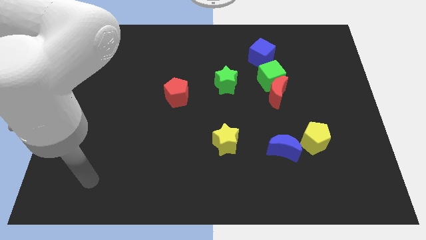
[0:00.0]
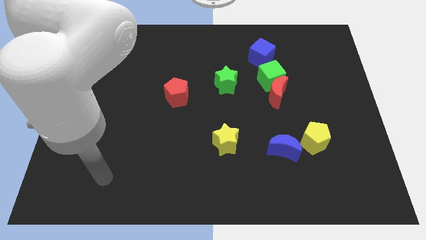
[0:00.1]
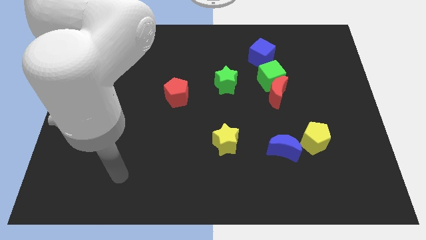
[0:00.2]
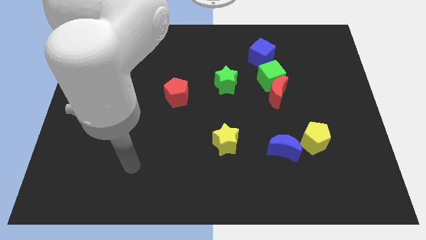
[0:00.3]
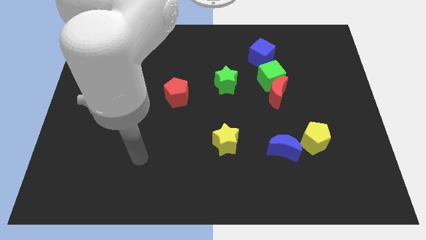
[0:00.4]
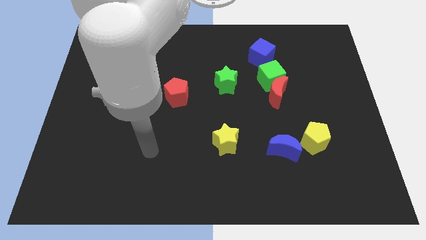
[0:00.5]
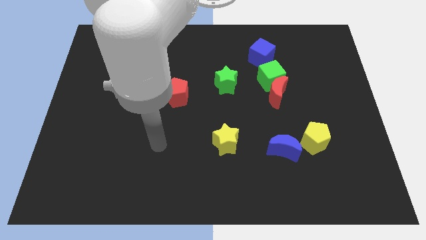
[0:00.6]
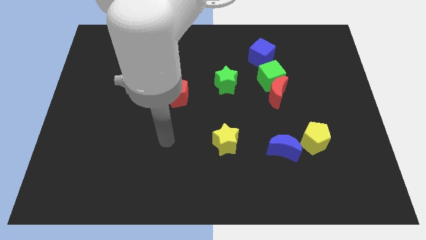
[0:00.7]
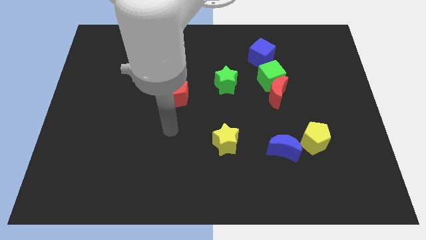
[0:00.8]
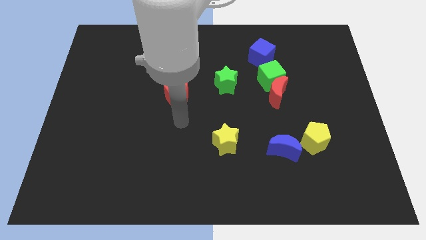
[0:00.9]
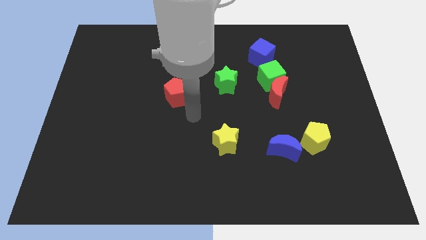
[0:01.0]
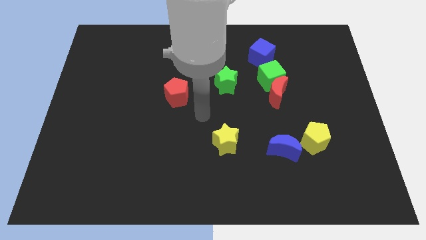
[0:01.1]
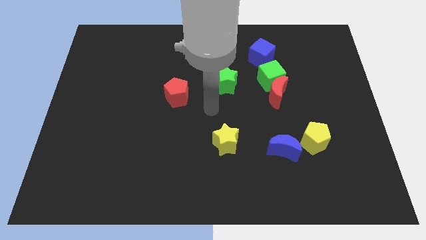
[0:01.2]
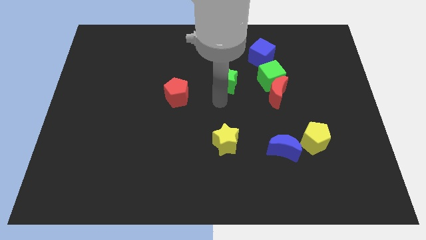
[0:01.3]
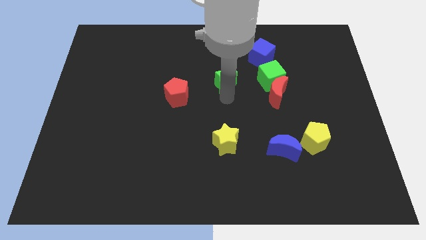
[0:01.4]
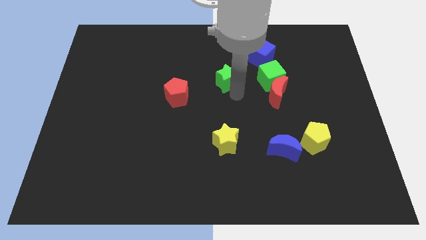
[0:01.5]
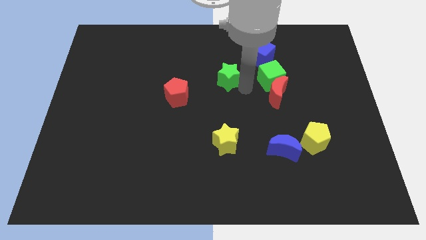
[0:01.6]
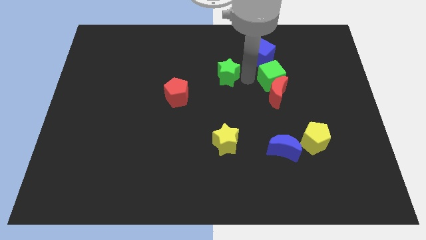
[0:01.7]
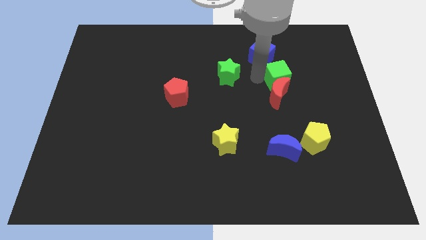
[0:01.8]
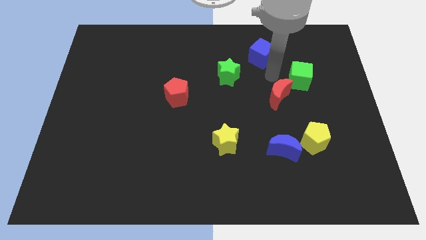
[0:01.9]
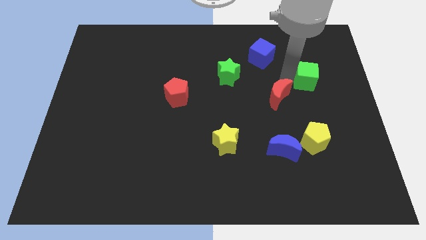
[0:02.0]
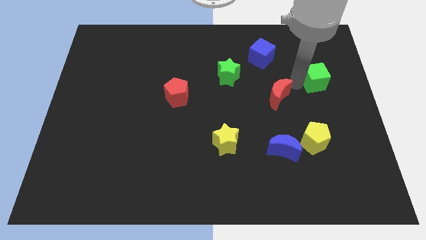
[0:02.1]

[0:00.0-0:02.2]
separate the red moon from the green cube

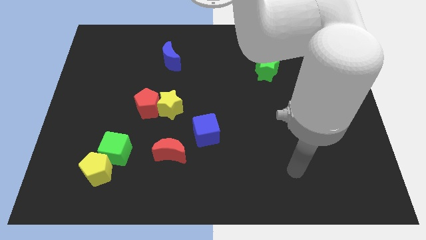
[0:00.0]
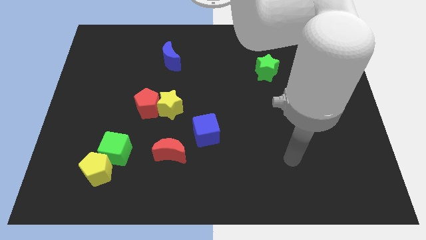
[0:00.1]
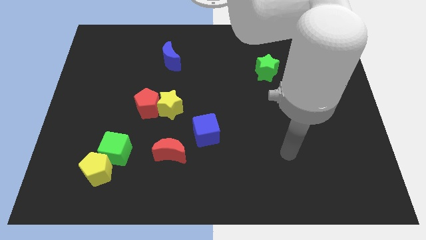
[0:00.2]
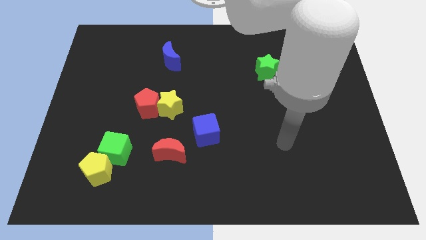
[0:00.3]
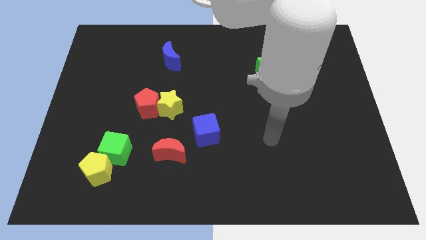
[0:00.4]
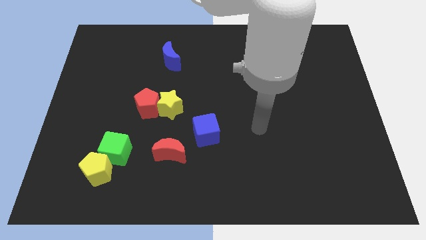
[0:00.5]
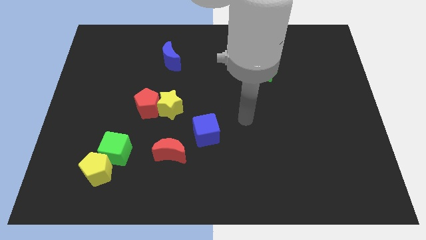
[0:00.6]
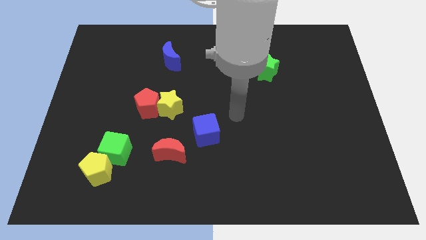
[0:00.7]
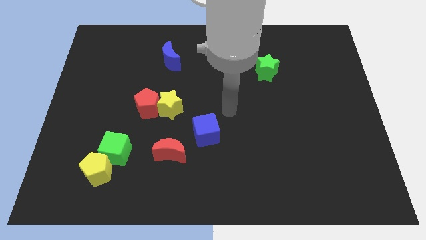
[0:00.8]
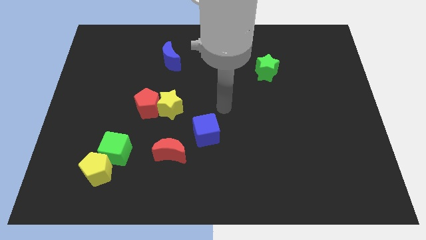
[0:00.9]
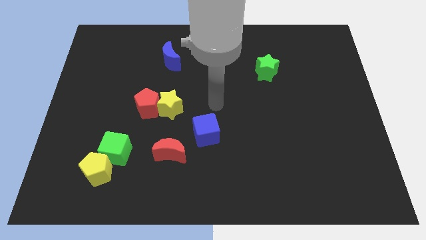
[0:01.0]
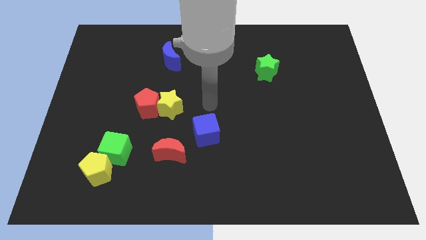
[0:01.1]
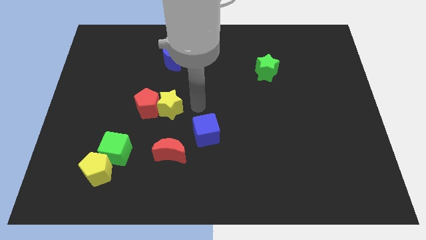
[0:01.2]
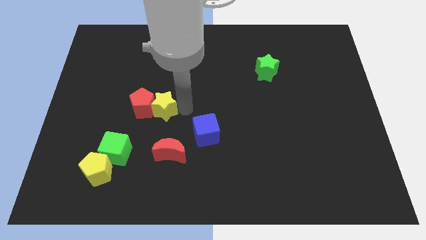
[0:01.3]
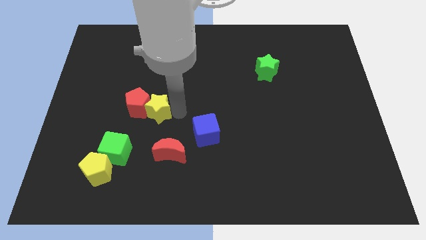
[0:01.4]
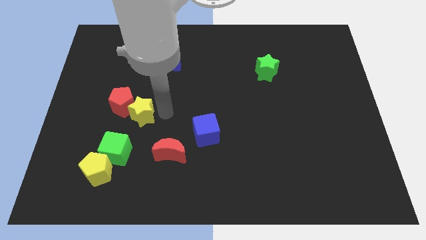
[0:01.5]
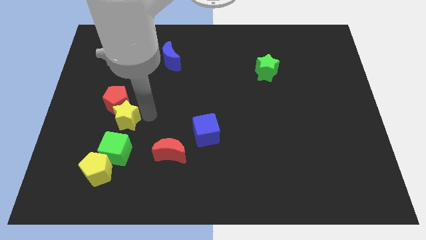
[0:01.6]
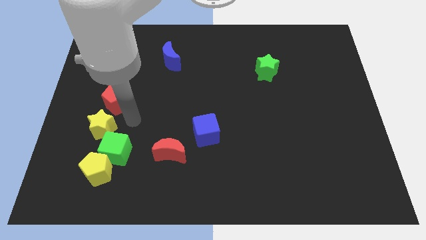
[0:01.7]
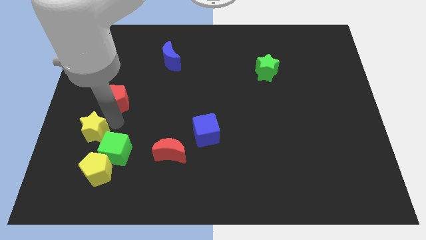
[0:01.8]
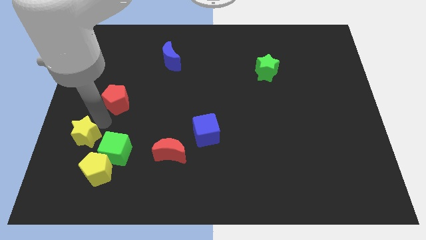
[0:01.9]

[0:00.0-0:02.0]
separate the red pentagon from the yellow star

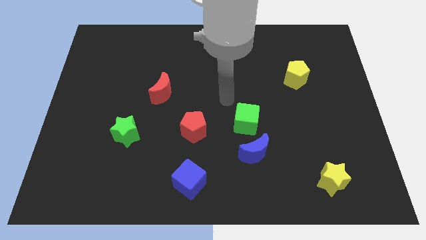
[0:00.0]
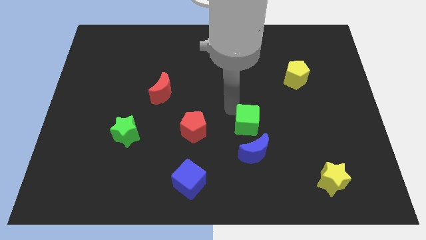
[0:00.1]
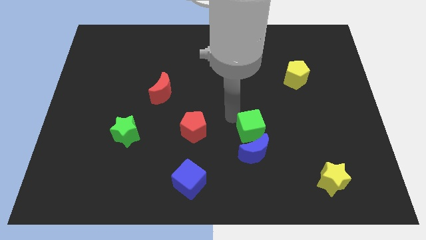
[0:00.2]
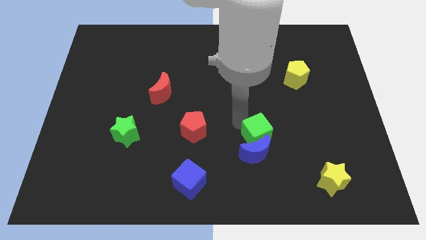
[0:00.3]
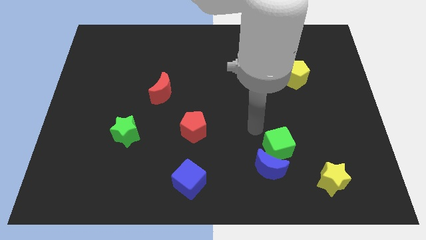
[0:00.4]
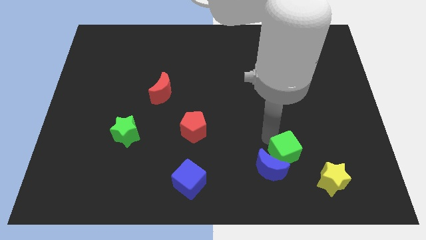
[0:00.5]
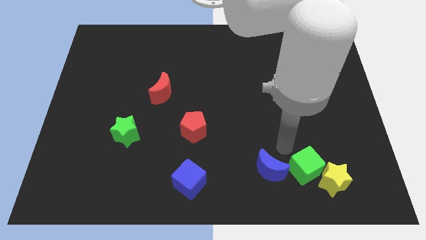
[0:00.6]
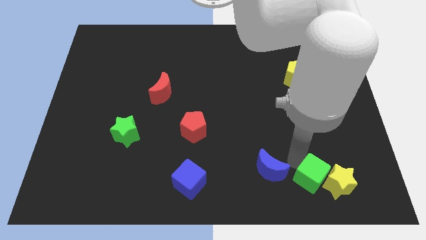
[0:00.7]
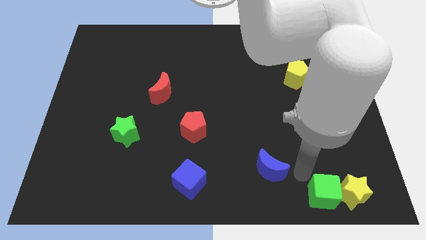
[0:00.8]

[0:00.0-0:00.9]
separate the blue moon from the green cube

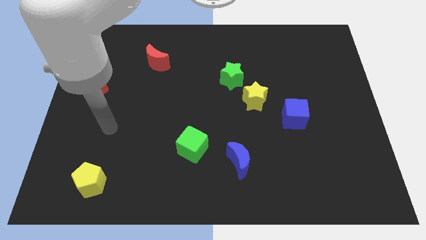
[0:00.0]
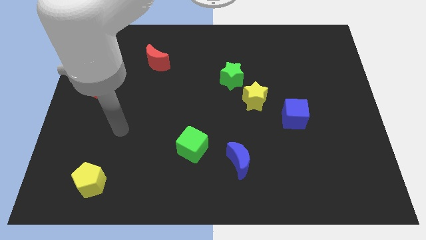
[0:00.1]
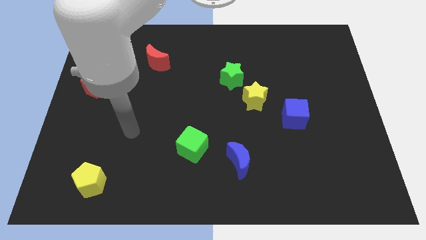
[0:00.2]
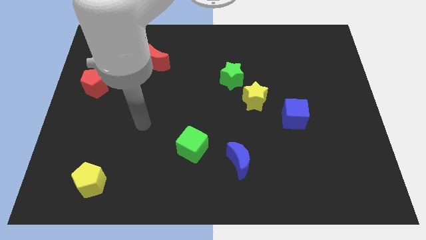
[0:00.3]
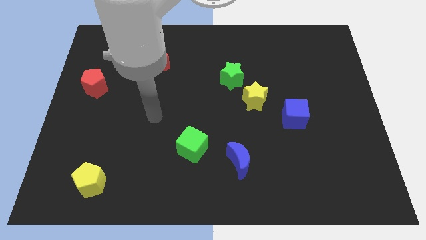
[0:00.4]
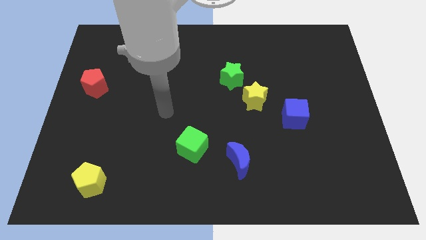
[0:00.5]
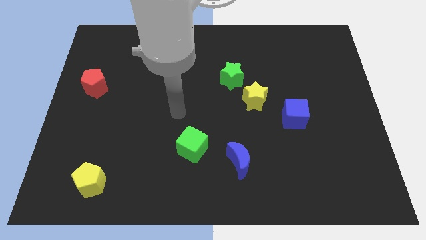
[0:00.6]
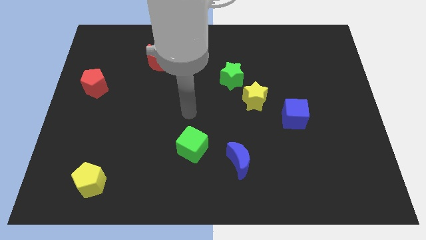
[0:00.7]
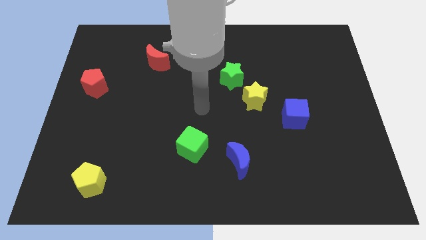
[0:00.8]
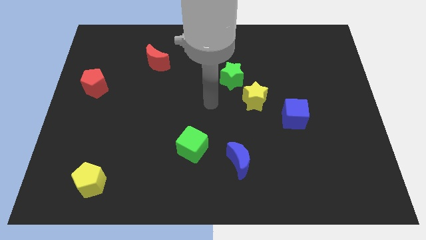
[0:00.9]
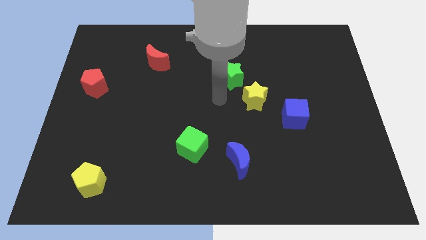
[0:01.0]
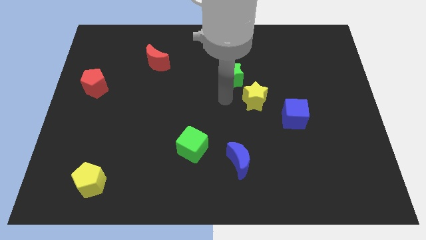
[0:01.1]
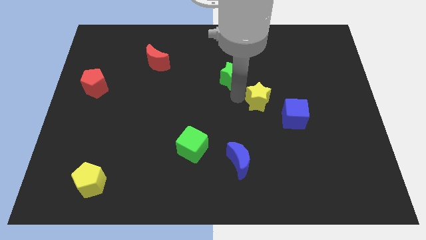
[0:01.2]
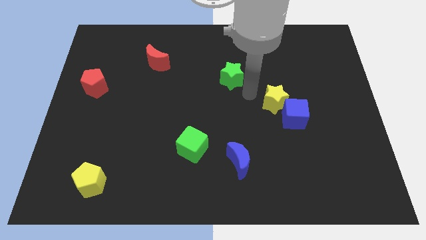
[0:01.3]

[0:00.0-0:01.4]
separate the green star from the yellow star

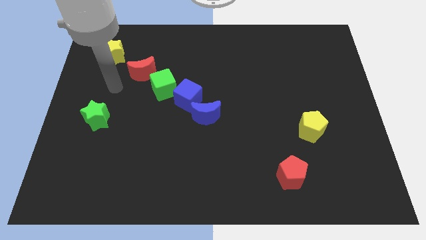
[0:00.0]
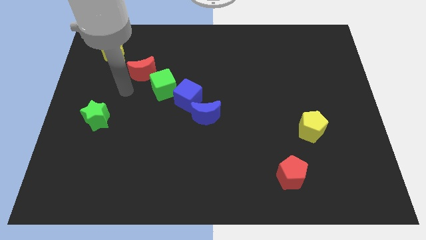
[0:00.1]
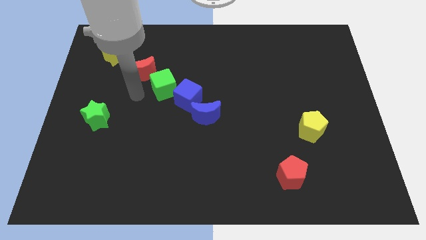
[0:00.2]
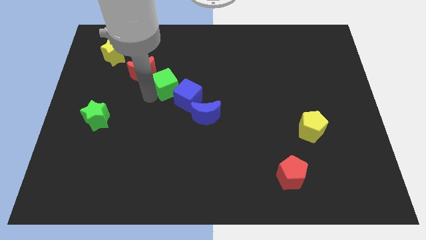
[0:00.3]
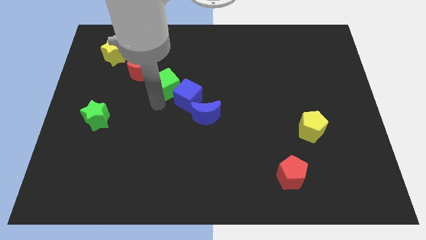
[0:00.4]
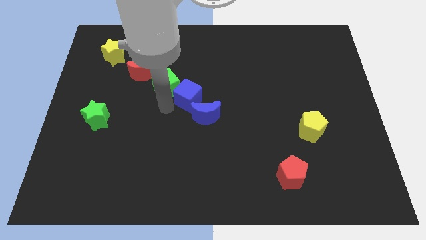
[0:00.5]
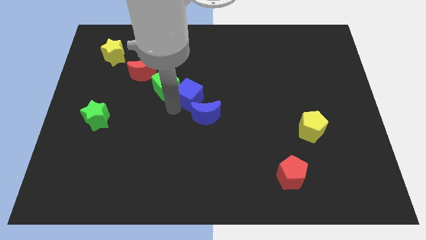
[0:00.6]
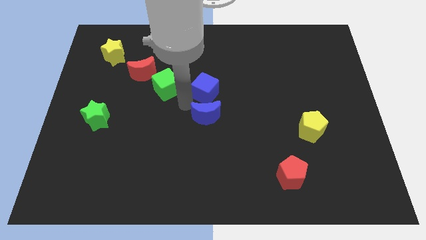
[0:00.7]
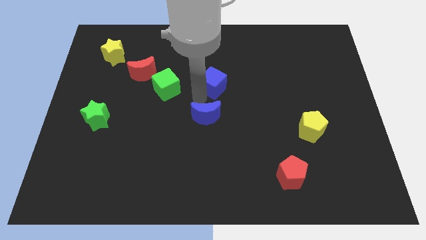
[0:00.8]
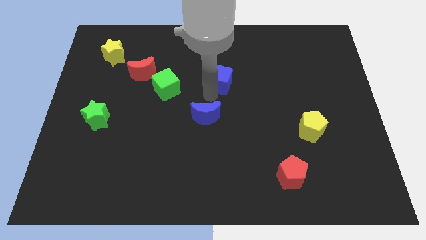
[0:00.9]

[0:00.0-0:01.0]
pull the blue moon apart from the blue cube

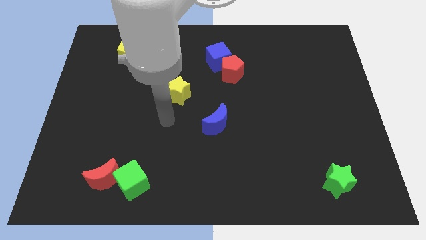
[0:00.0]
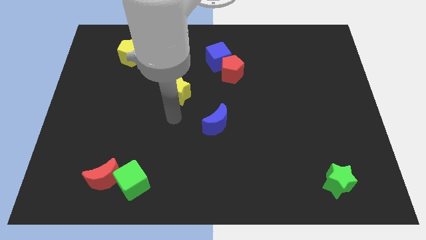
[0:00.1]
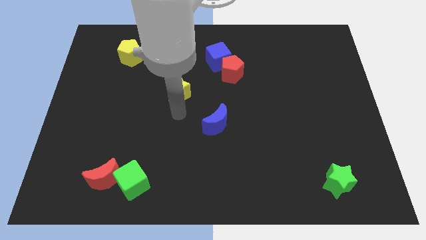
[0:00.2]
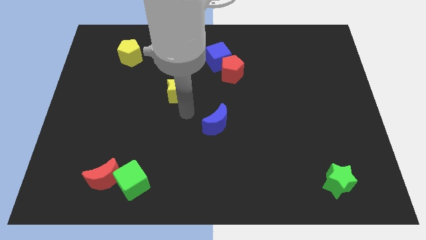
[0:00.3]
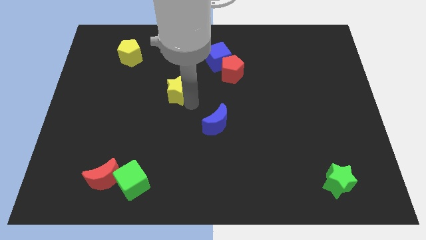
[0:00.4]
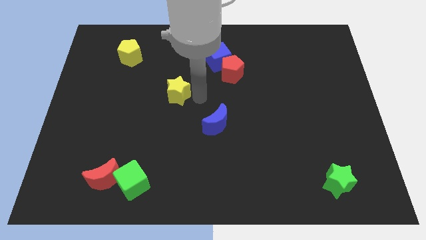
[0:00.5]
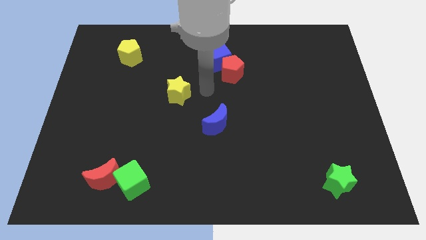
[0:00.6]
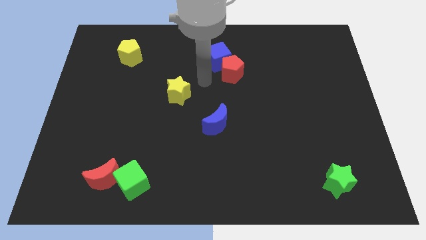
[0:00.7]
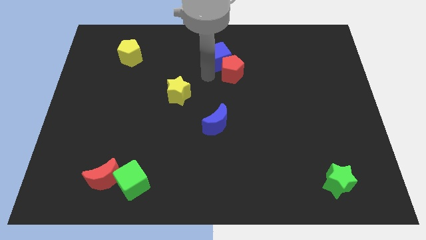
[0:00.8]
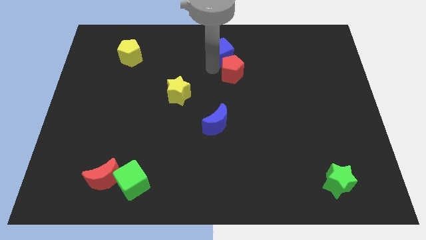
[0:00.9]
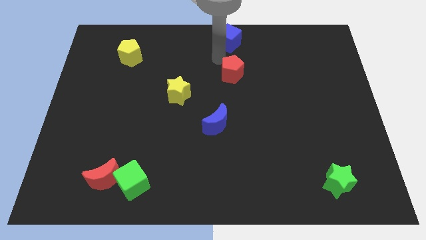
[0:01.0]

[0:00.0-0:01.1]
separate the red pentagon from the blue cube

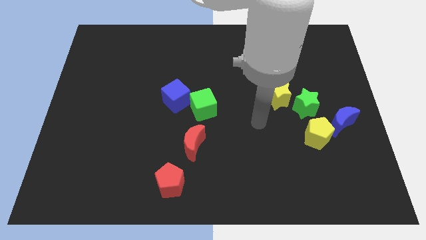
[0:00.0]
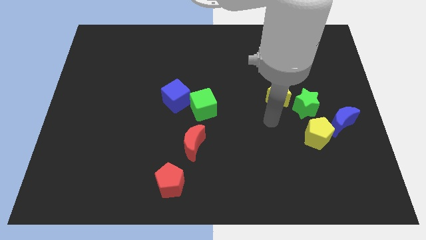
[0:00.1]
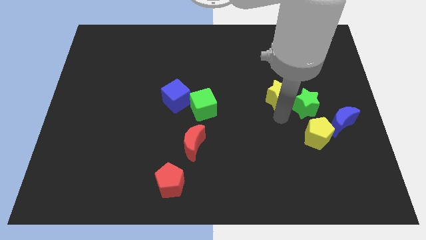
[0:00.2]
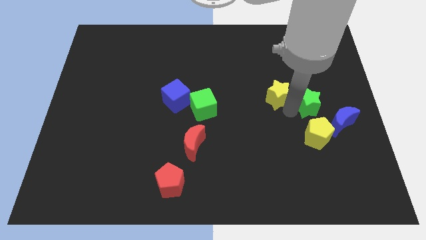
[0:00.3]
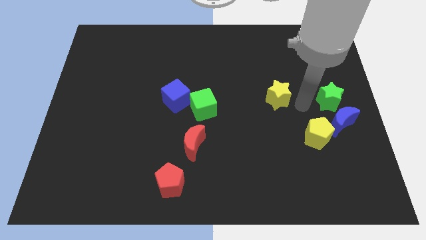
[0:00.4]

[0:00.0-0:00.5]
pull the yellow star apart from the green star

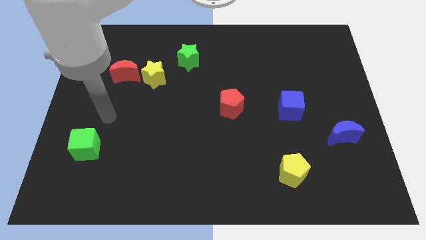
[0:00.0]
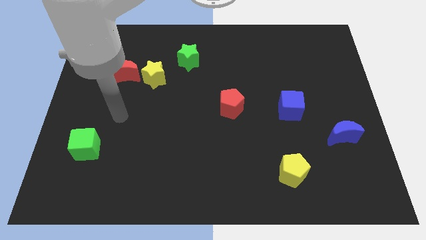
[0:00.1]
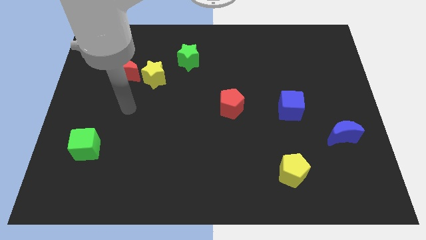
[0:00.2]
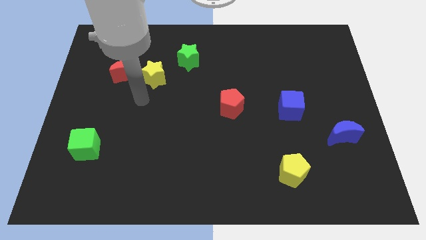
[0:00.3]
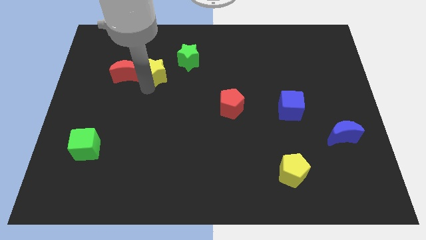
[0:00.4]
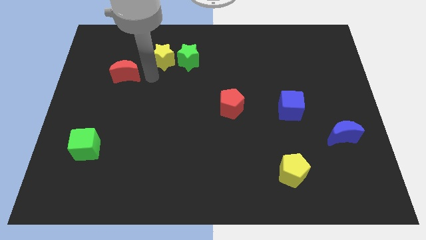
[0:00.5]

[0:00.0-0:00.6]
separate the red moon from the yellow star
